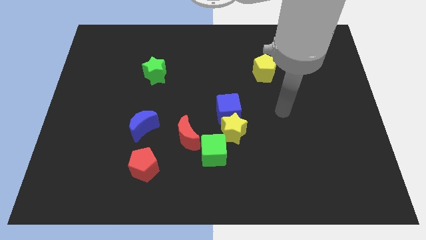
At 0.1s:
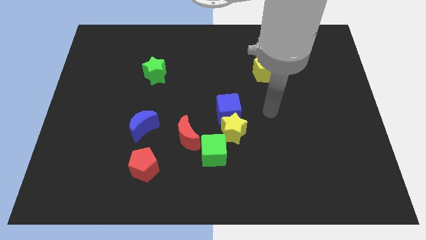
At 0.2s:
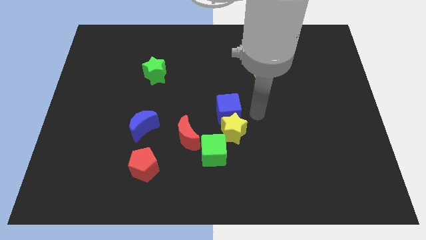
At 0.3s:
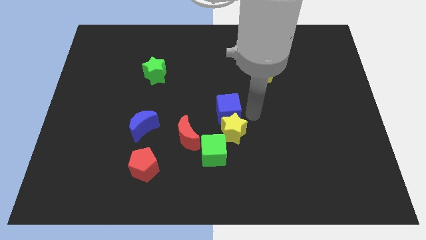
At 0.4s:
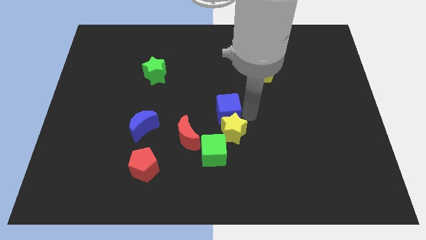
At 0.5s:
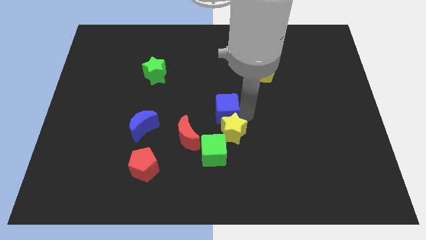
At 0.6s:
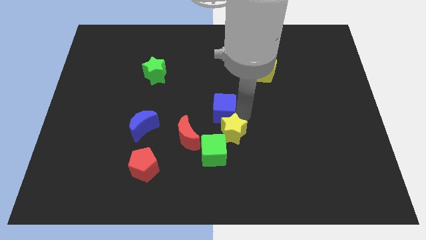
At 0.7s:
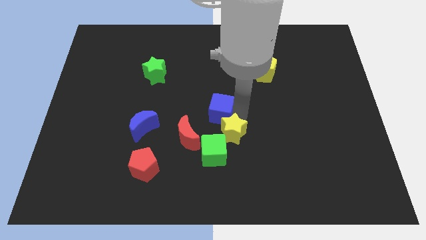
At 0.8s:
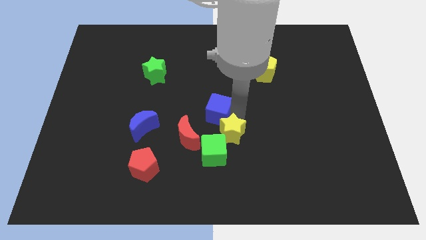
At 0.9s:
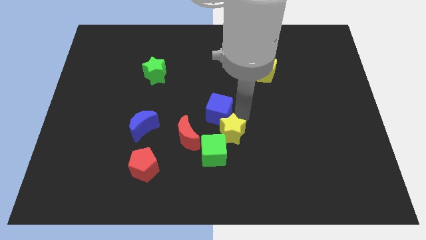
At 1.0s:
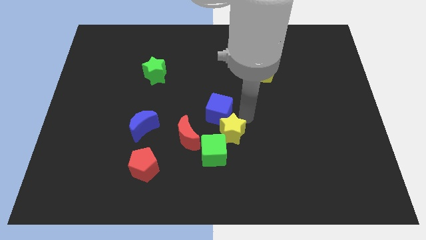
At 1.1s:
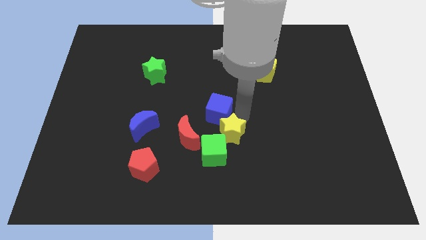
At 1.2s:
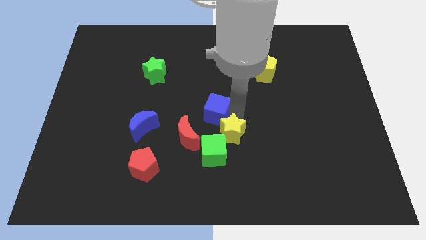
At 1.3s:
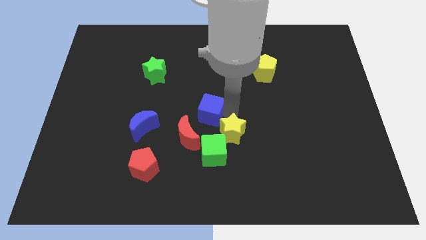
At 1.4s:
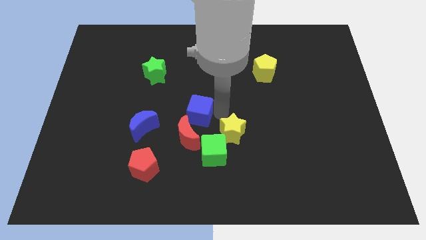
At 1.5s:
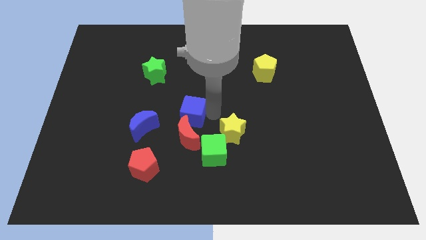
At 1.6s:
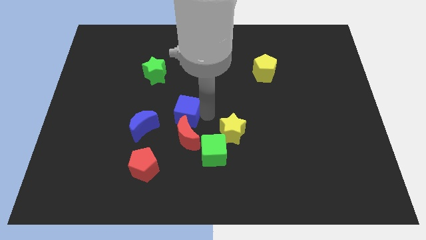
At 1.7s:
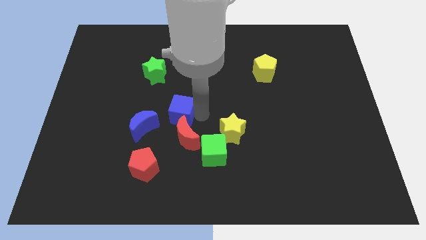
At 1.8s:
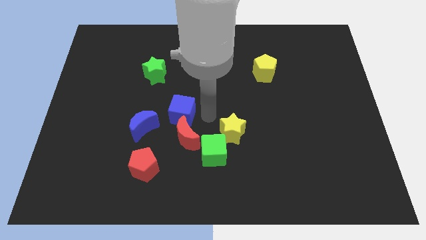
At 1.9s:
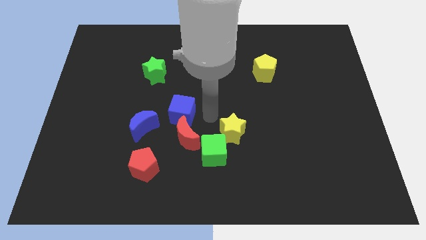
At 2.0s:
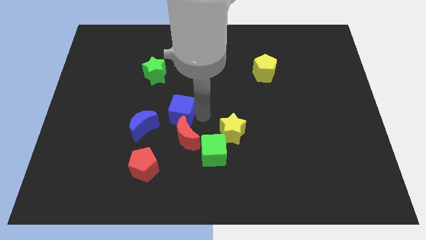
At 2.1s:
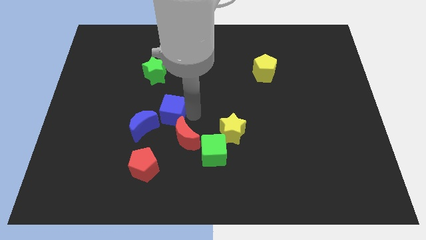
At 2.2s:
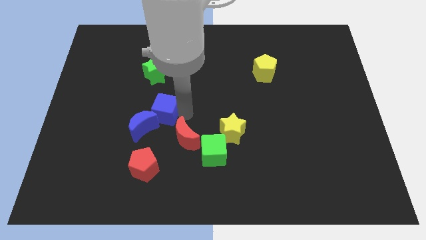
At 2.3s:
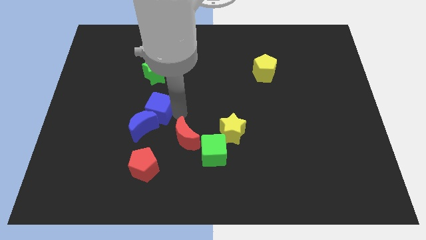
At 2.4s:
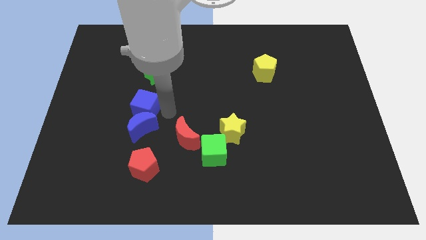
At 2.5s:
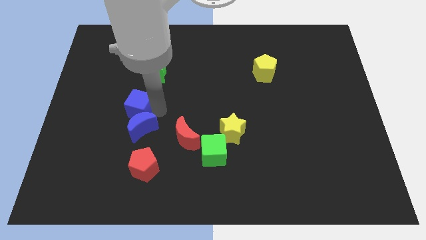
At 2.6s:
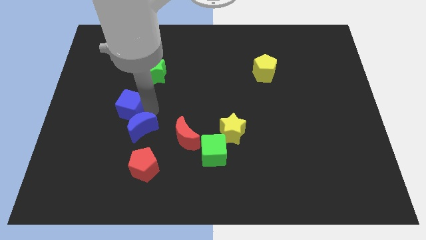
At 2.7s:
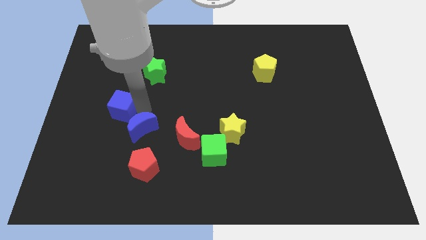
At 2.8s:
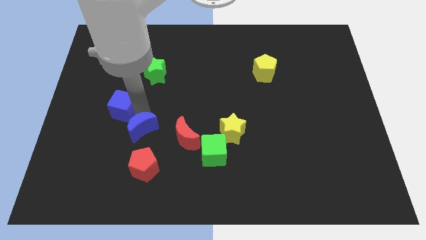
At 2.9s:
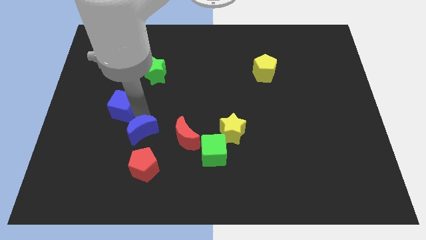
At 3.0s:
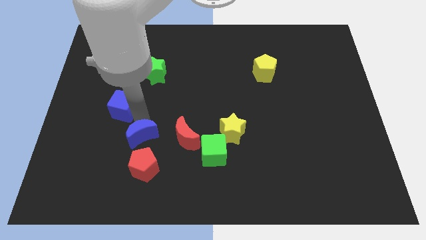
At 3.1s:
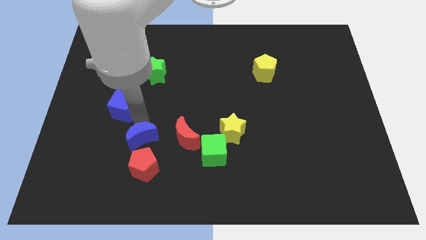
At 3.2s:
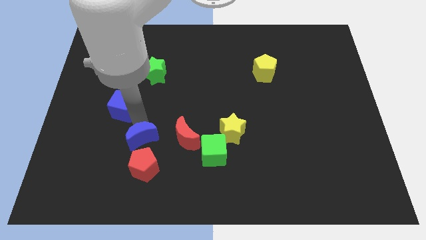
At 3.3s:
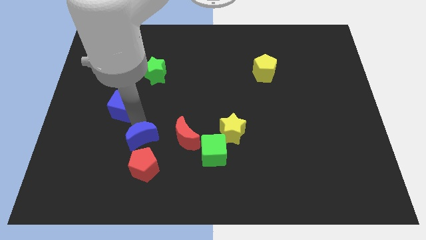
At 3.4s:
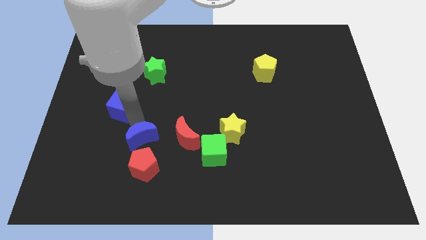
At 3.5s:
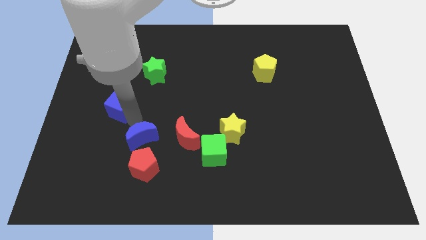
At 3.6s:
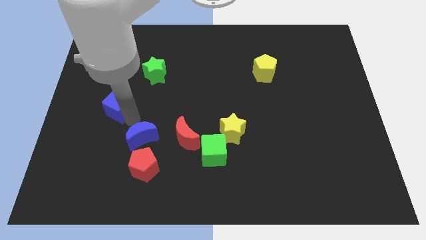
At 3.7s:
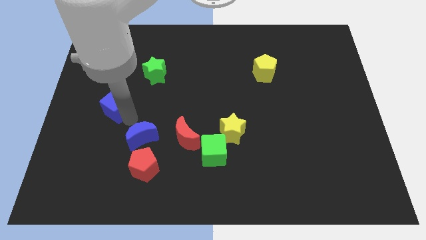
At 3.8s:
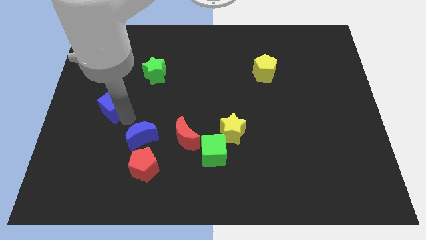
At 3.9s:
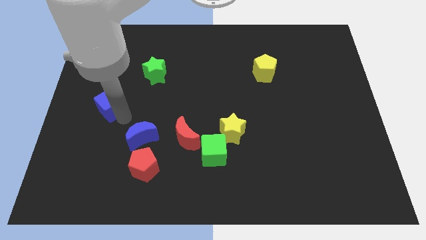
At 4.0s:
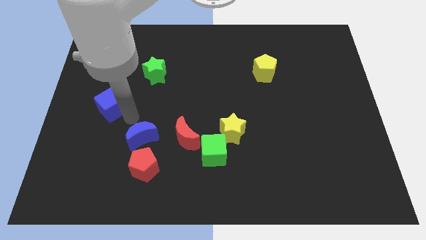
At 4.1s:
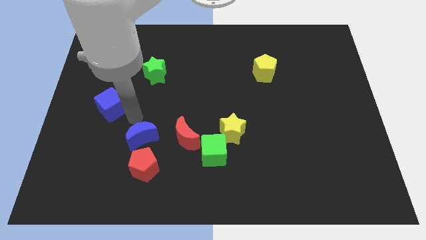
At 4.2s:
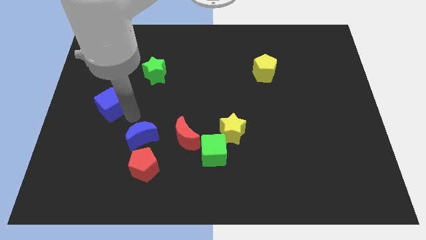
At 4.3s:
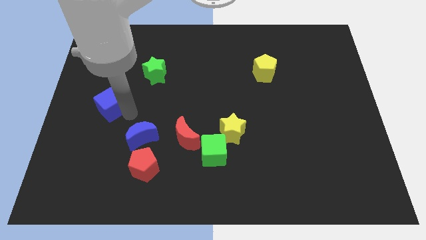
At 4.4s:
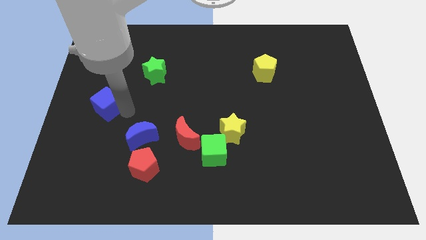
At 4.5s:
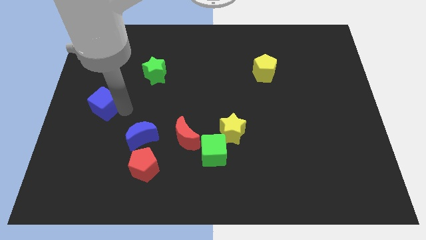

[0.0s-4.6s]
put the blue cube to the center left

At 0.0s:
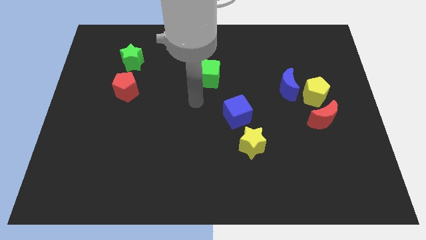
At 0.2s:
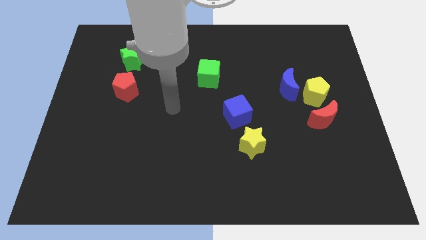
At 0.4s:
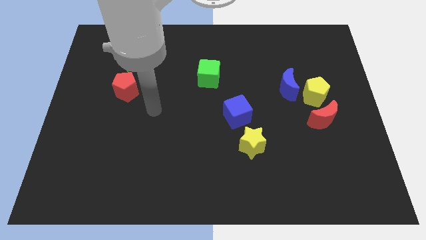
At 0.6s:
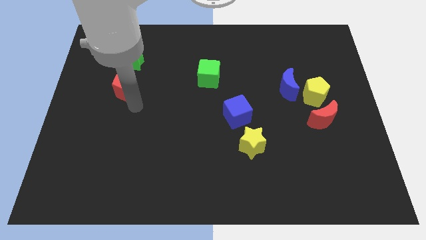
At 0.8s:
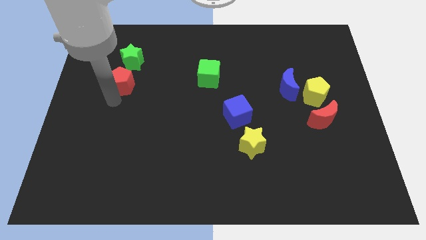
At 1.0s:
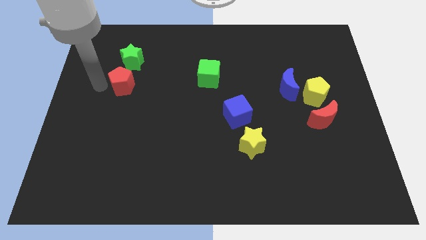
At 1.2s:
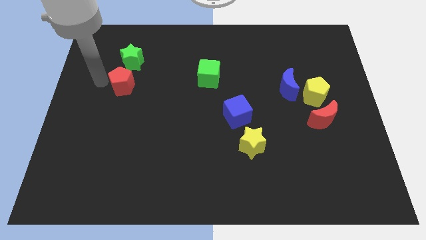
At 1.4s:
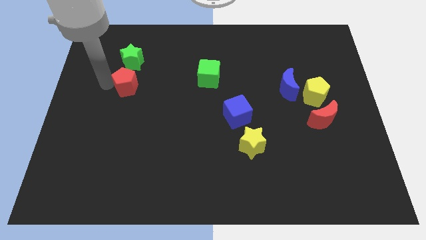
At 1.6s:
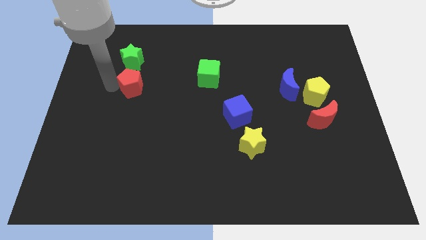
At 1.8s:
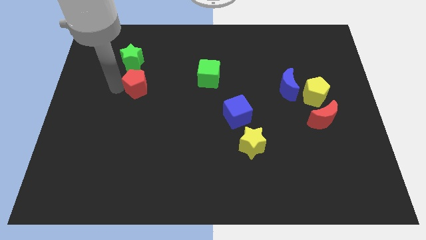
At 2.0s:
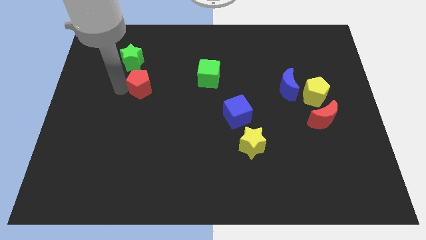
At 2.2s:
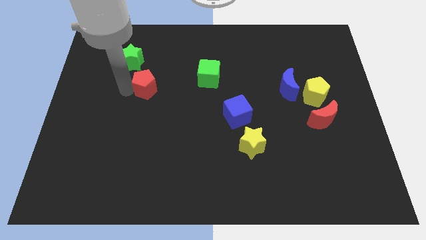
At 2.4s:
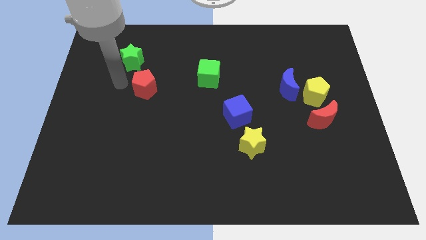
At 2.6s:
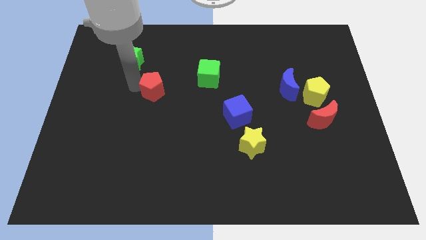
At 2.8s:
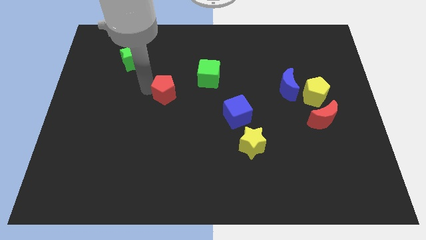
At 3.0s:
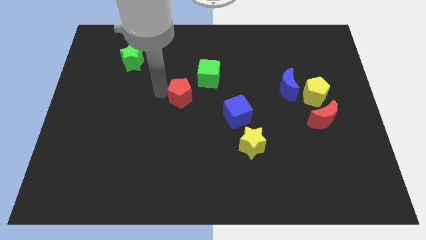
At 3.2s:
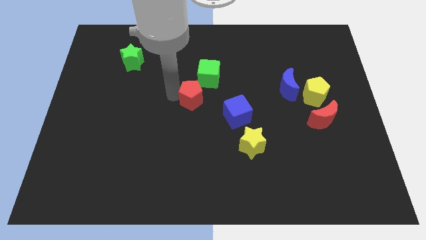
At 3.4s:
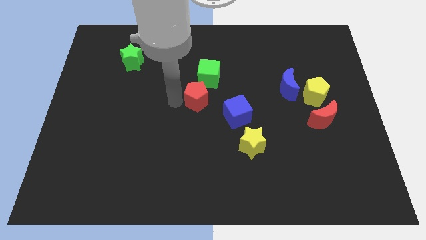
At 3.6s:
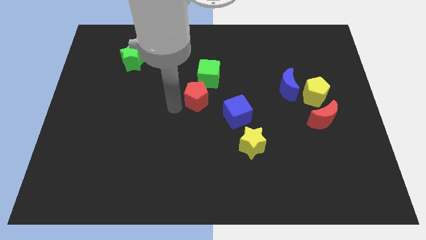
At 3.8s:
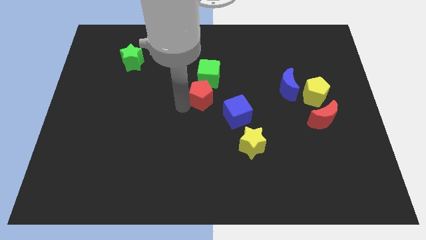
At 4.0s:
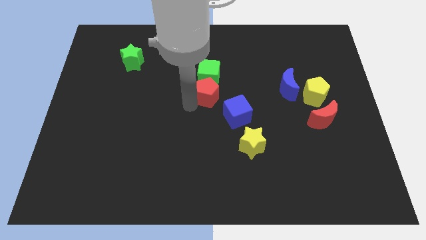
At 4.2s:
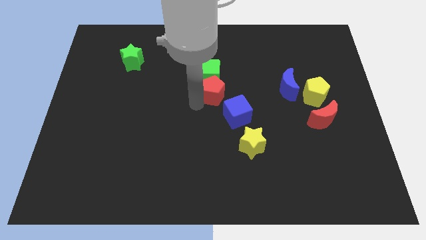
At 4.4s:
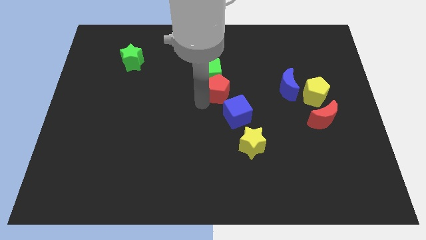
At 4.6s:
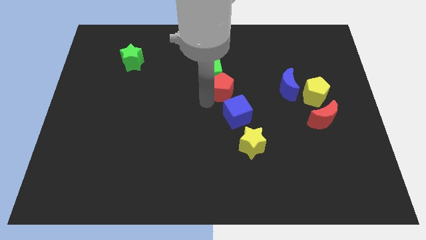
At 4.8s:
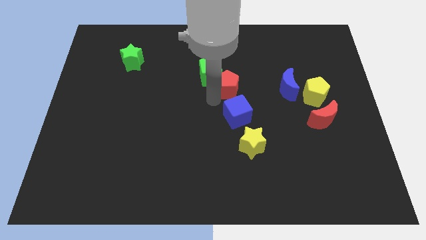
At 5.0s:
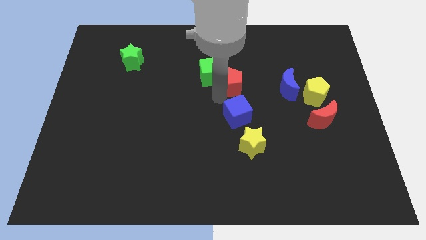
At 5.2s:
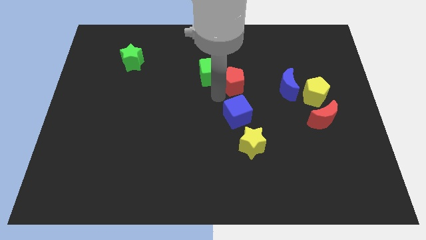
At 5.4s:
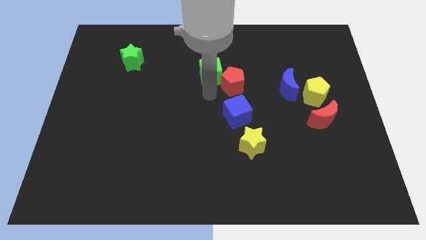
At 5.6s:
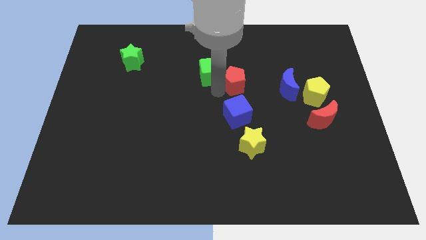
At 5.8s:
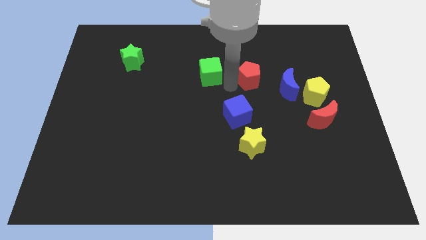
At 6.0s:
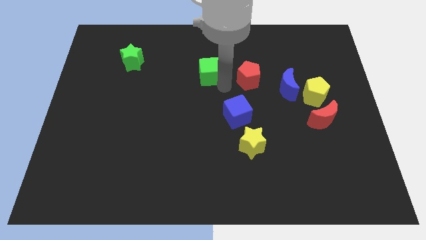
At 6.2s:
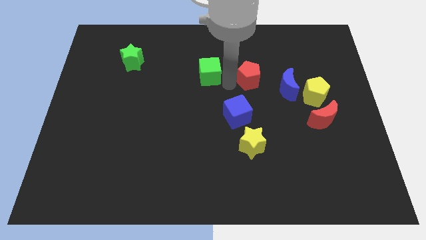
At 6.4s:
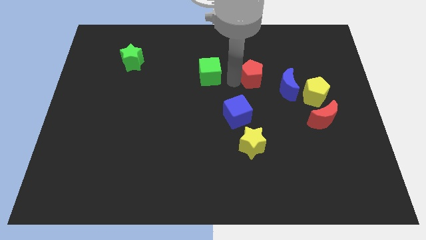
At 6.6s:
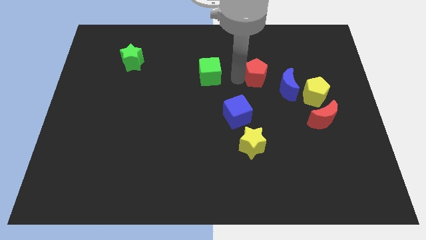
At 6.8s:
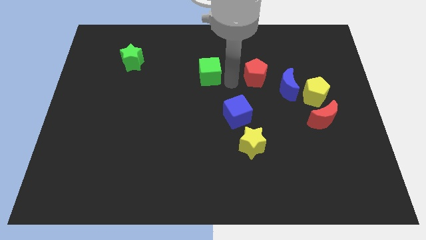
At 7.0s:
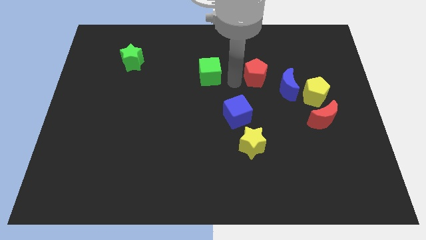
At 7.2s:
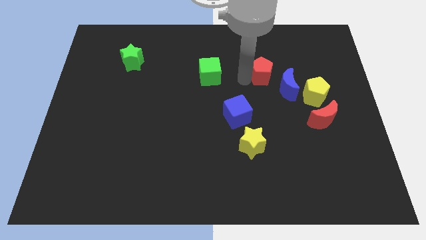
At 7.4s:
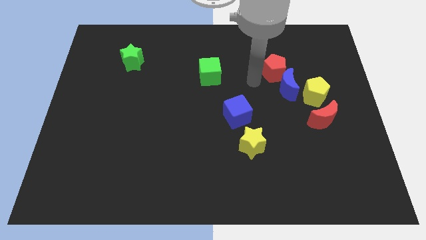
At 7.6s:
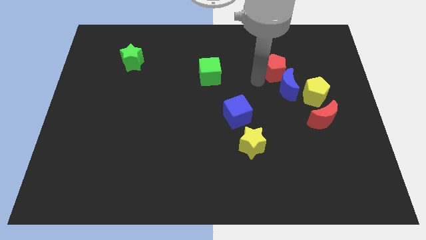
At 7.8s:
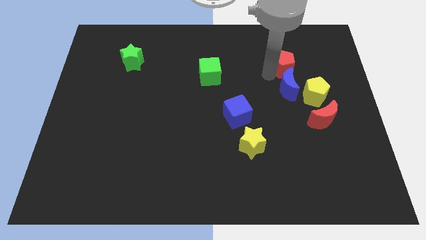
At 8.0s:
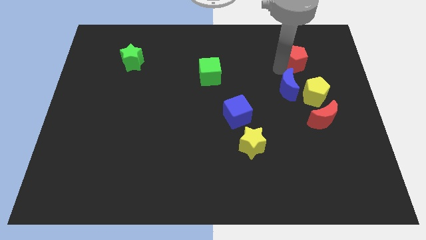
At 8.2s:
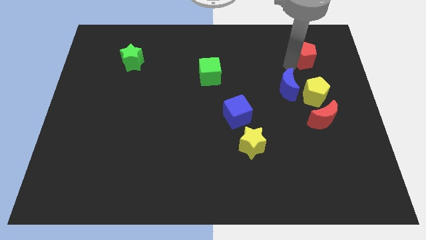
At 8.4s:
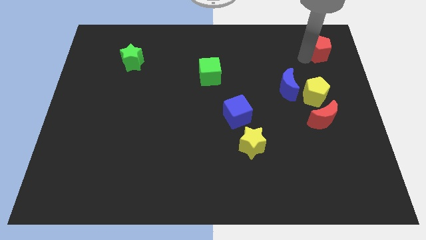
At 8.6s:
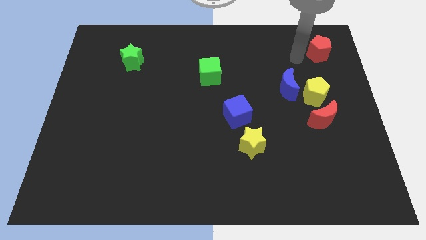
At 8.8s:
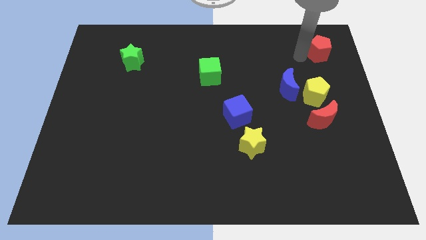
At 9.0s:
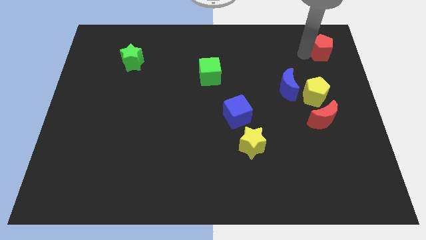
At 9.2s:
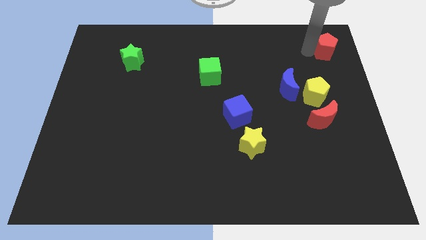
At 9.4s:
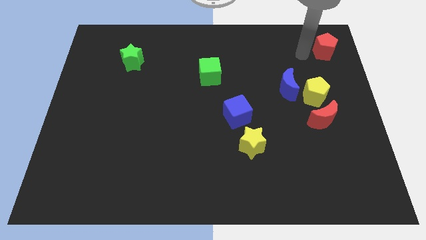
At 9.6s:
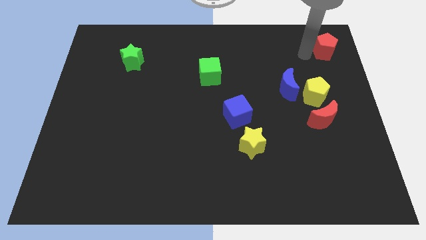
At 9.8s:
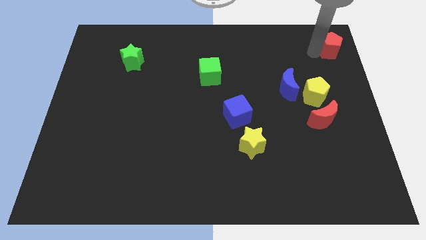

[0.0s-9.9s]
slide the red pentagon to the top right corner
